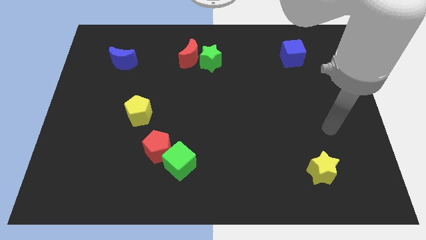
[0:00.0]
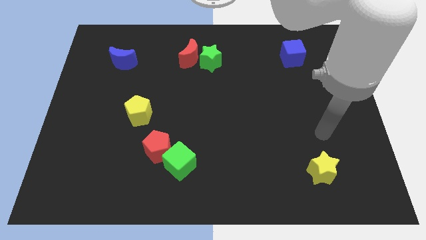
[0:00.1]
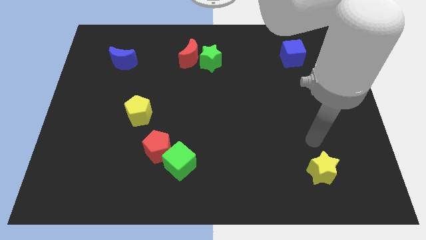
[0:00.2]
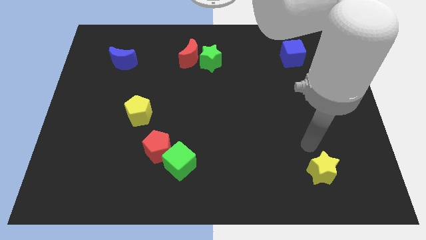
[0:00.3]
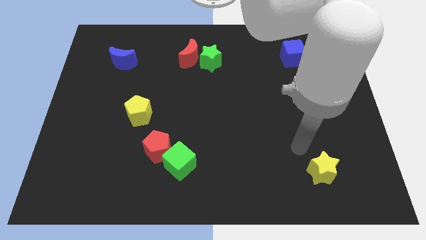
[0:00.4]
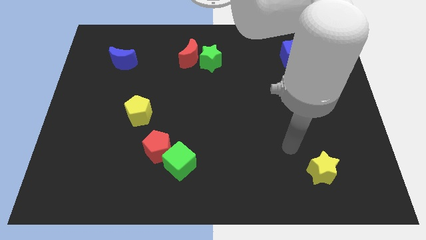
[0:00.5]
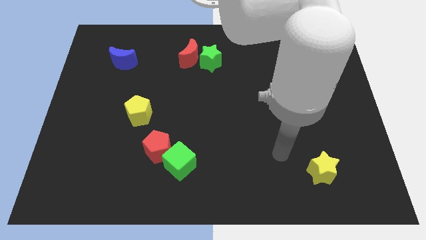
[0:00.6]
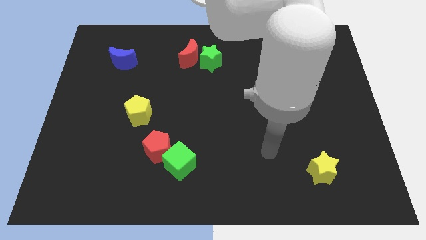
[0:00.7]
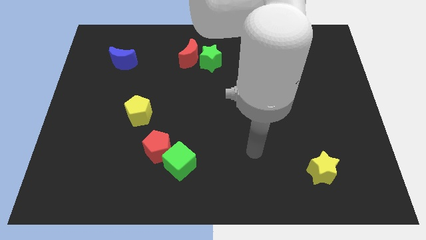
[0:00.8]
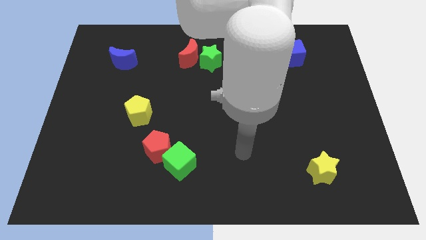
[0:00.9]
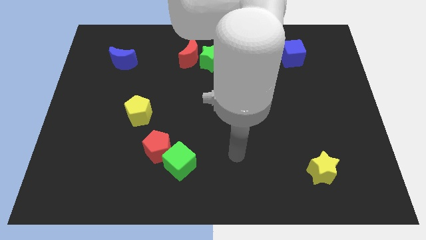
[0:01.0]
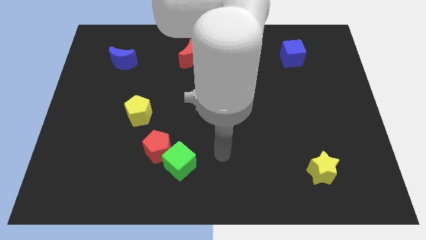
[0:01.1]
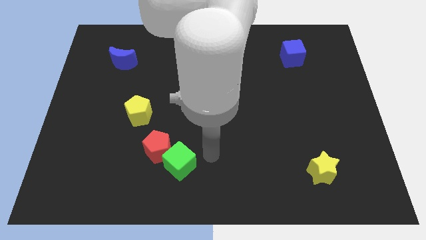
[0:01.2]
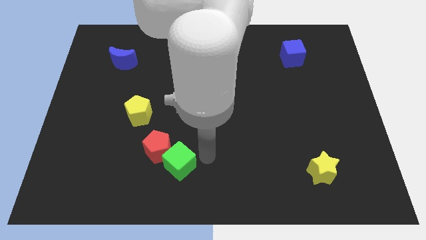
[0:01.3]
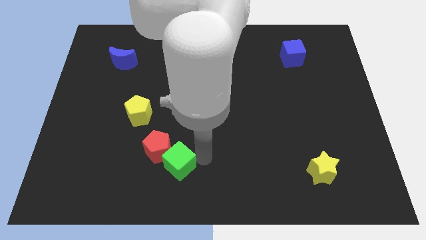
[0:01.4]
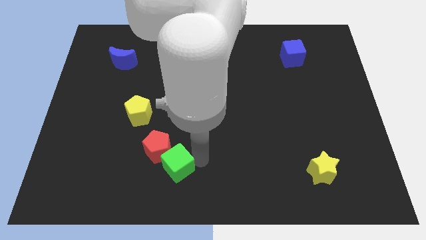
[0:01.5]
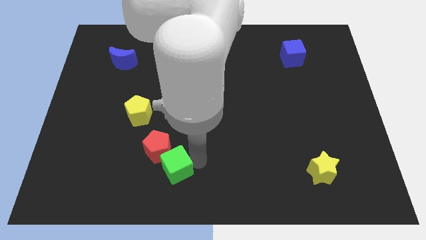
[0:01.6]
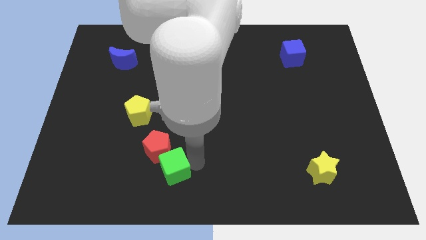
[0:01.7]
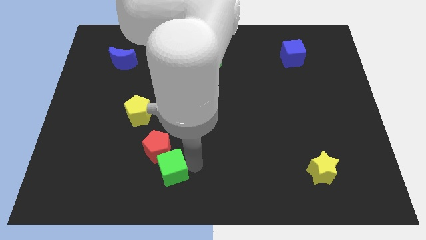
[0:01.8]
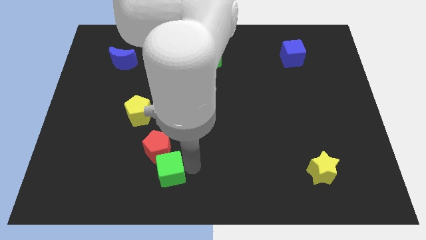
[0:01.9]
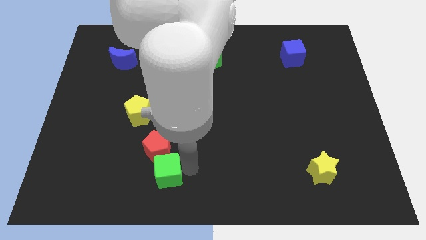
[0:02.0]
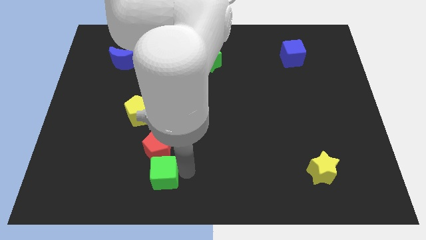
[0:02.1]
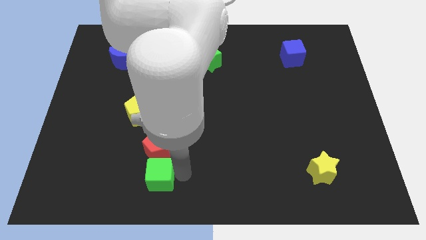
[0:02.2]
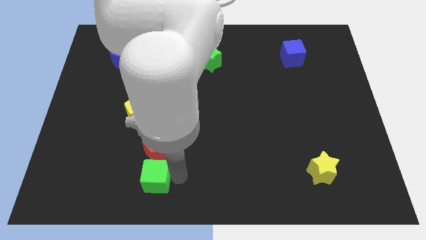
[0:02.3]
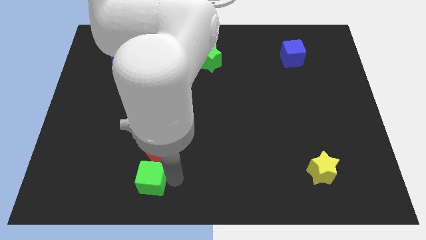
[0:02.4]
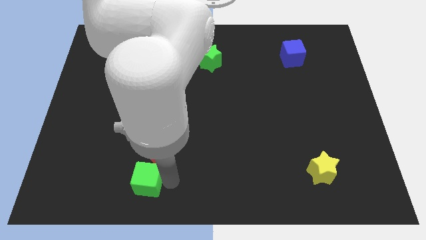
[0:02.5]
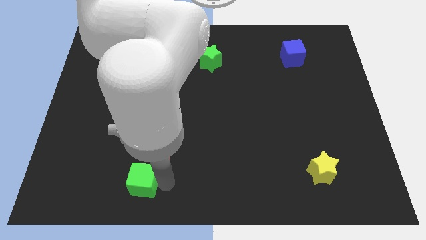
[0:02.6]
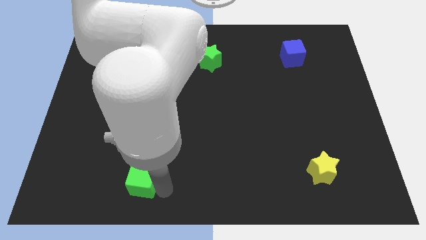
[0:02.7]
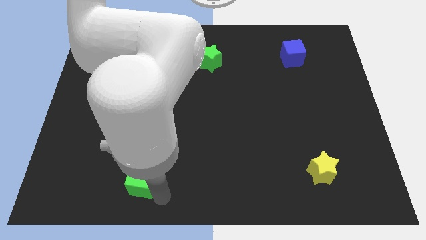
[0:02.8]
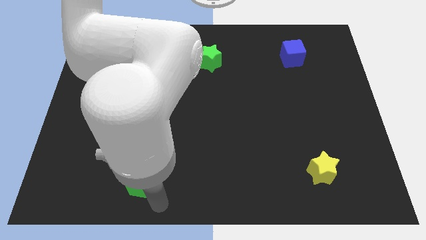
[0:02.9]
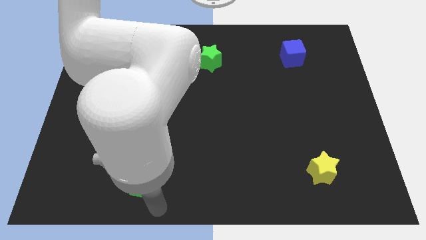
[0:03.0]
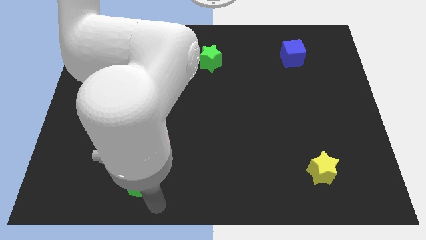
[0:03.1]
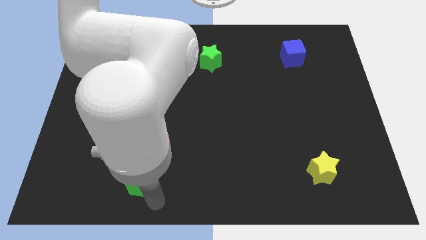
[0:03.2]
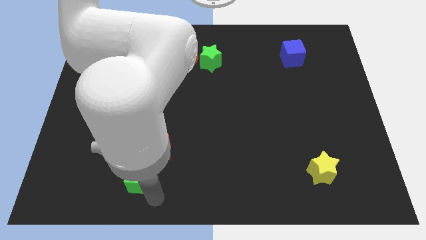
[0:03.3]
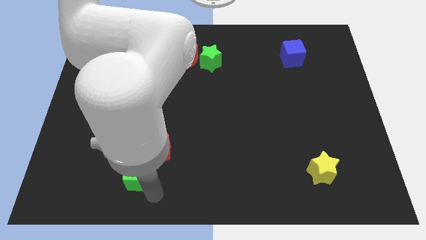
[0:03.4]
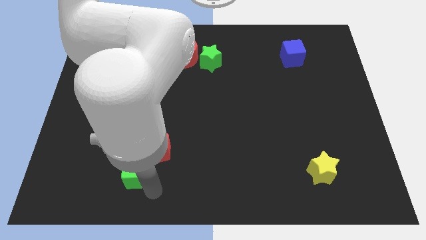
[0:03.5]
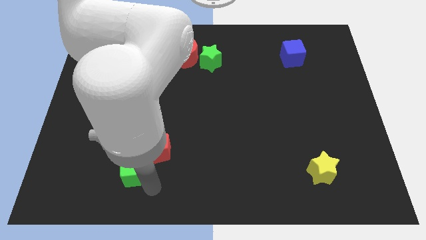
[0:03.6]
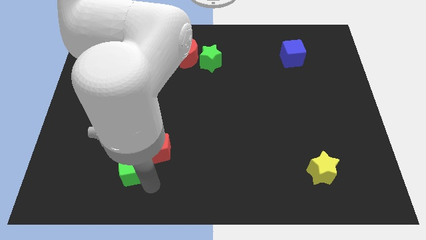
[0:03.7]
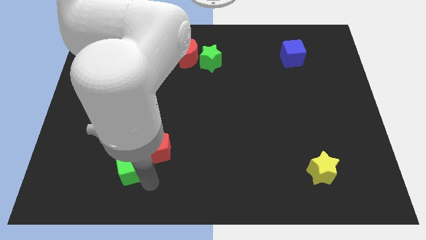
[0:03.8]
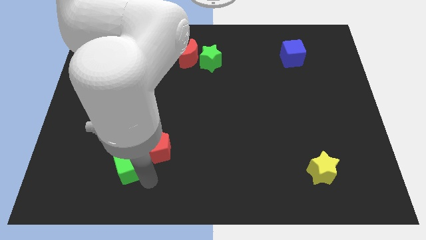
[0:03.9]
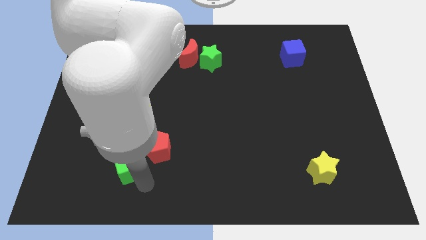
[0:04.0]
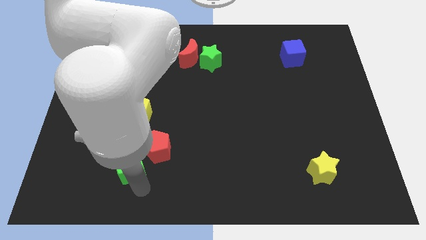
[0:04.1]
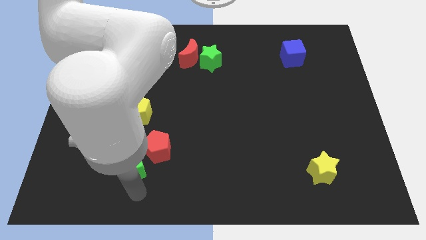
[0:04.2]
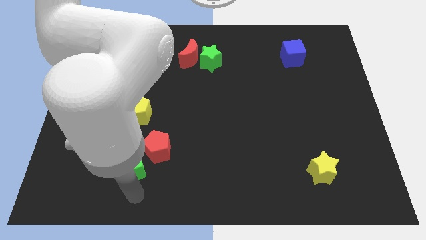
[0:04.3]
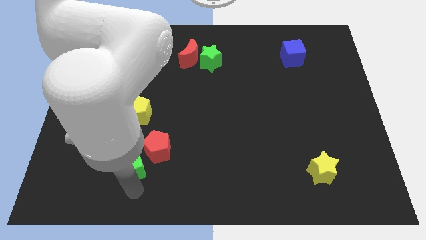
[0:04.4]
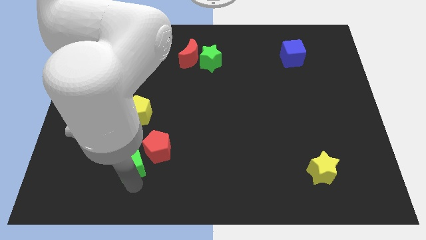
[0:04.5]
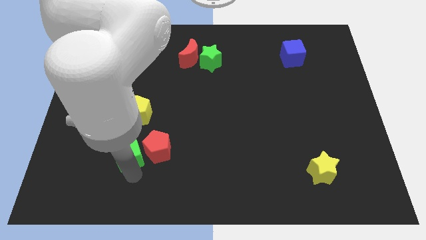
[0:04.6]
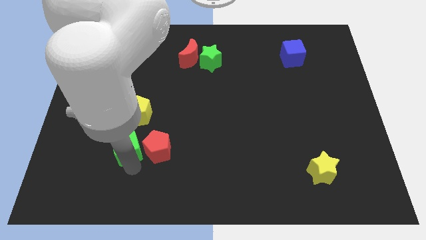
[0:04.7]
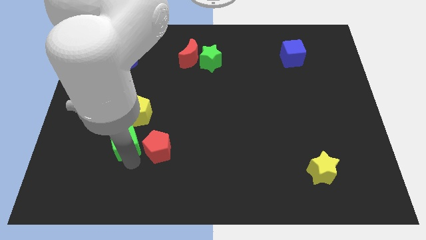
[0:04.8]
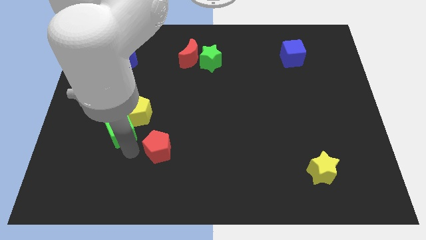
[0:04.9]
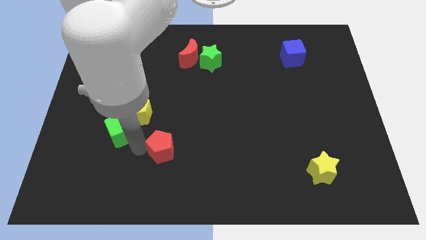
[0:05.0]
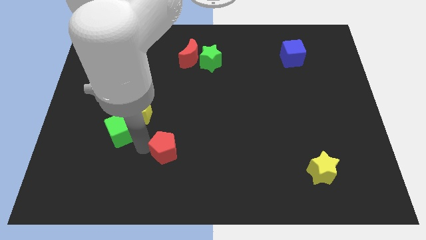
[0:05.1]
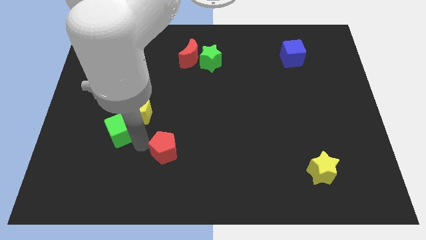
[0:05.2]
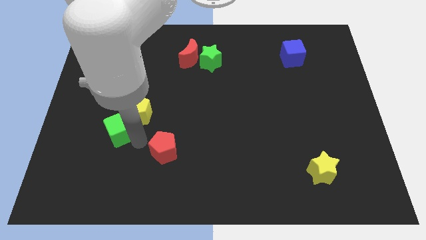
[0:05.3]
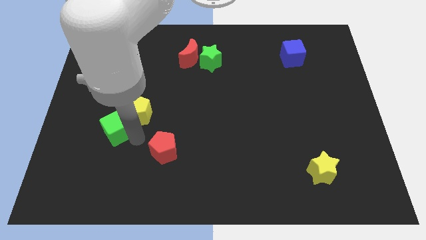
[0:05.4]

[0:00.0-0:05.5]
put the green cube to the left side of the yellow pentagon
